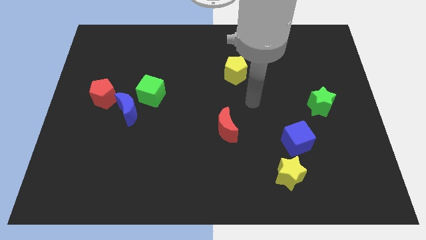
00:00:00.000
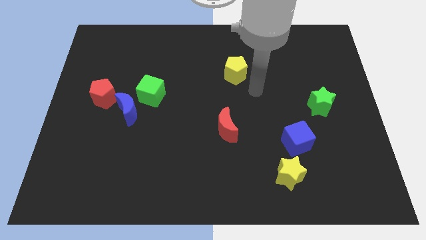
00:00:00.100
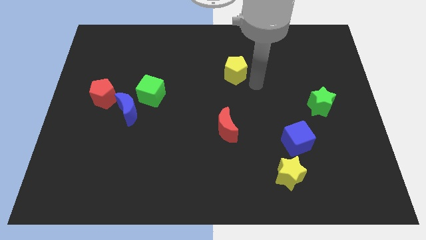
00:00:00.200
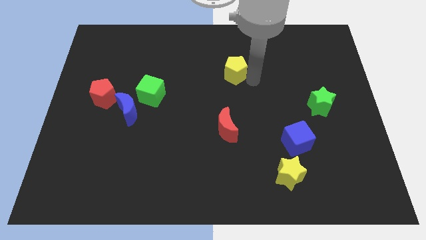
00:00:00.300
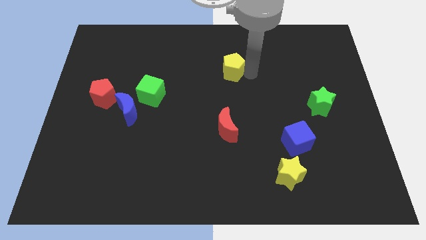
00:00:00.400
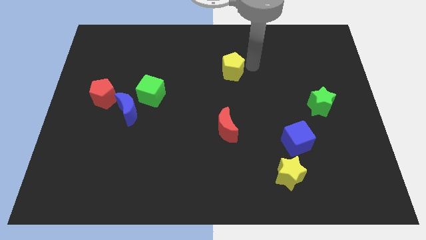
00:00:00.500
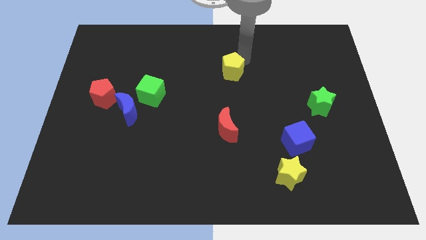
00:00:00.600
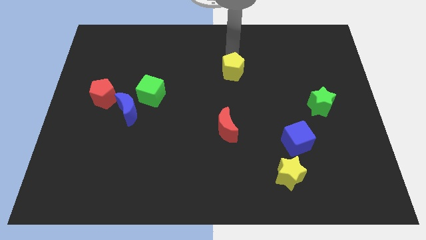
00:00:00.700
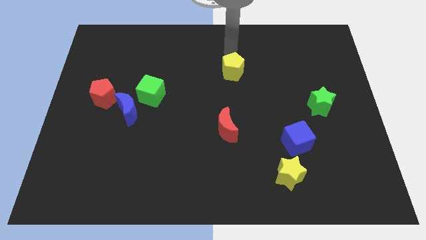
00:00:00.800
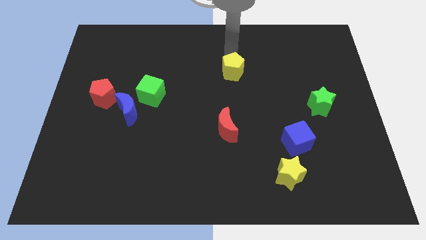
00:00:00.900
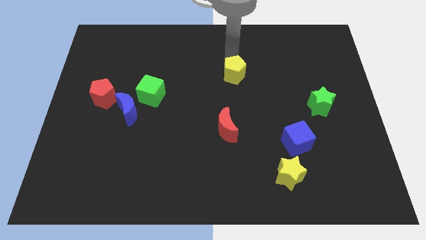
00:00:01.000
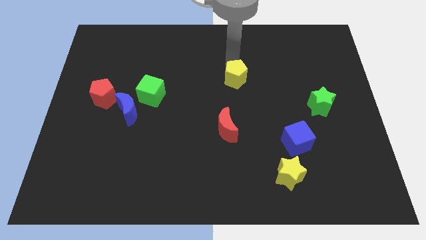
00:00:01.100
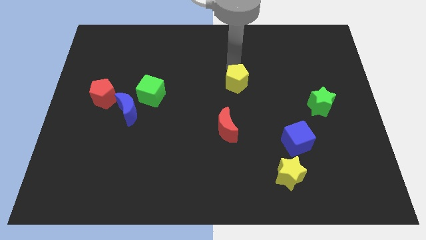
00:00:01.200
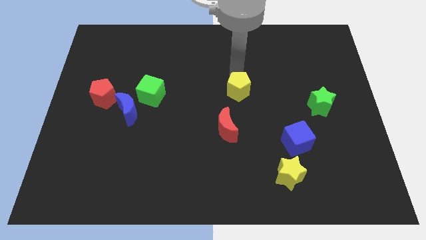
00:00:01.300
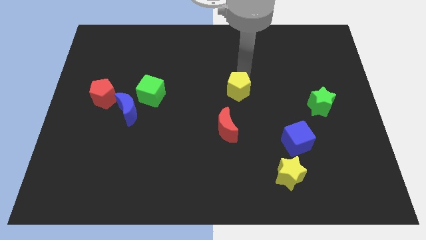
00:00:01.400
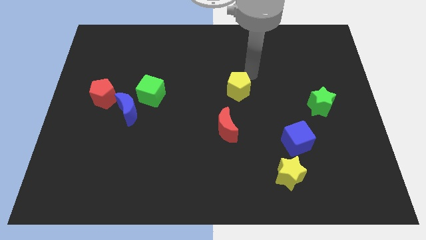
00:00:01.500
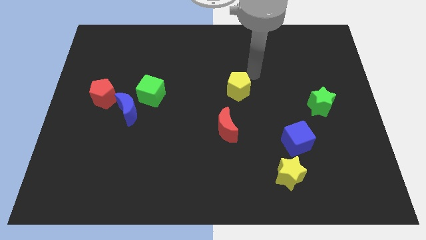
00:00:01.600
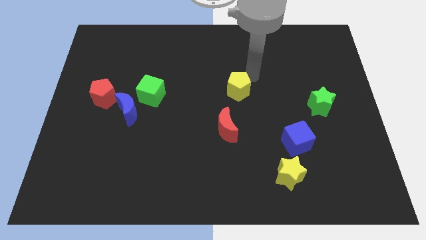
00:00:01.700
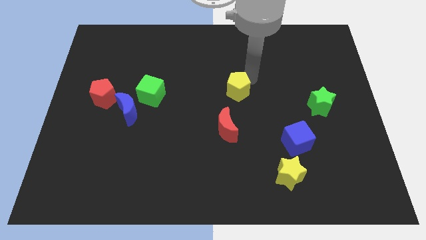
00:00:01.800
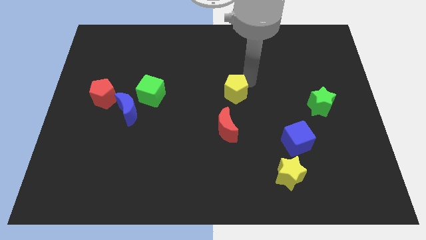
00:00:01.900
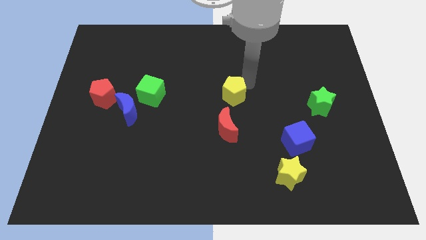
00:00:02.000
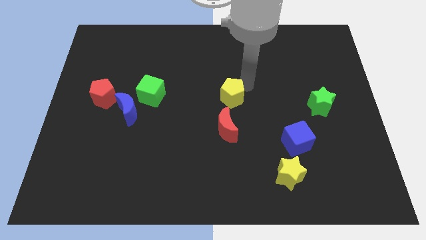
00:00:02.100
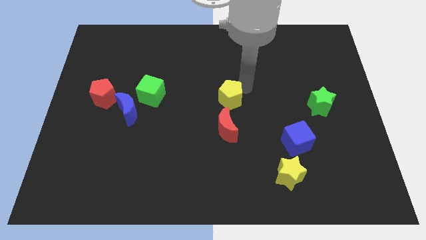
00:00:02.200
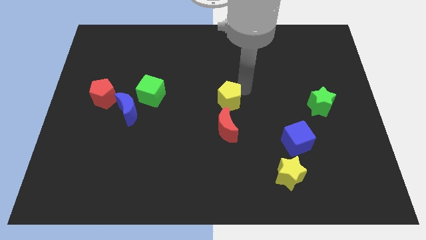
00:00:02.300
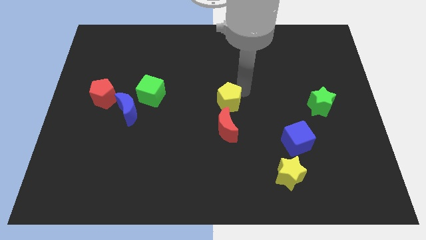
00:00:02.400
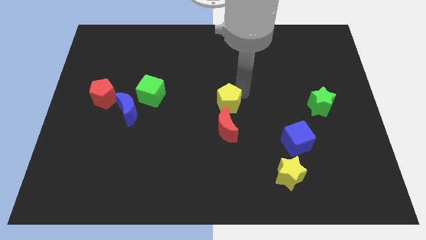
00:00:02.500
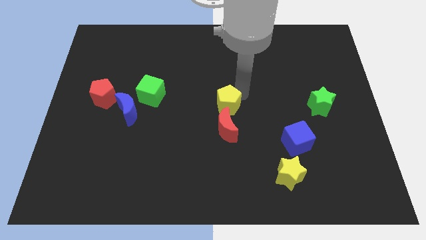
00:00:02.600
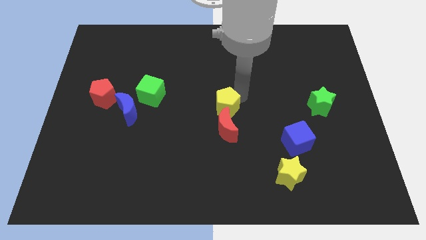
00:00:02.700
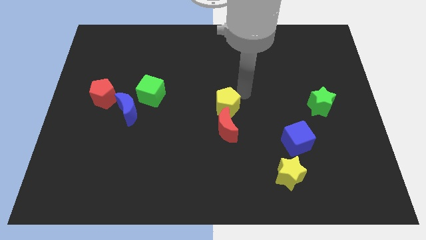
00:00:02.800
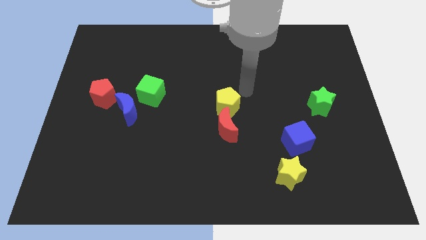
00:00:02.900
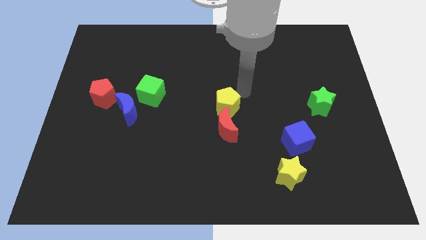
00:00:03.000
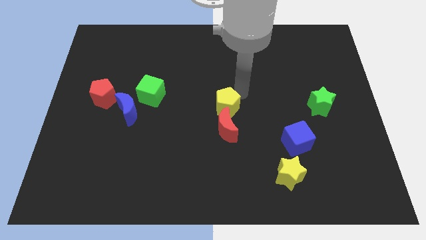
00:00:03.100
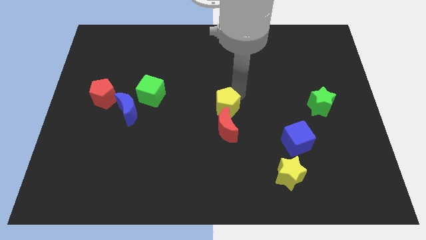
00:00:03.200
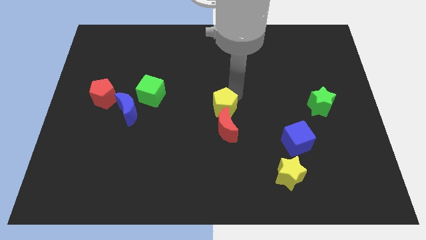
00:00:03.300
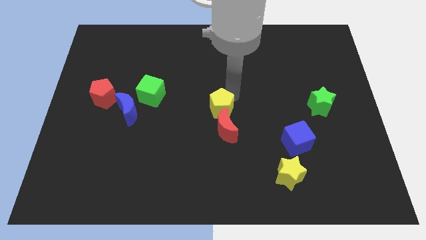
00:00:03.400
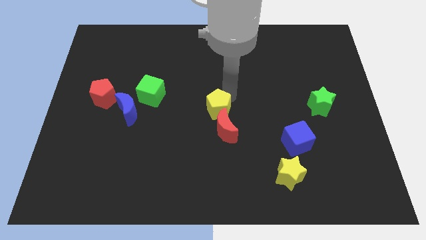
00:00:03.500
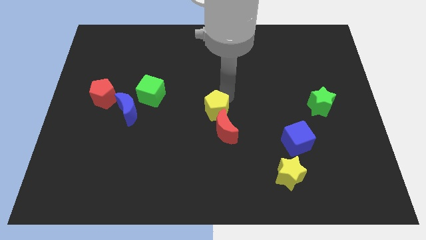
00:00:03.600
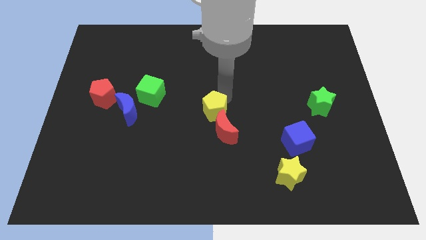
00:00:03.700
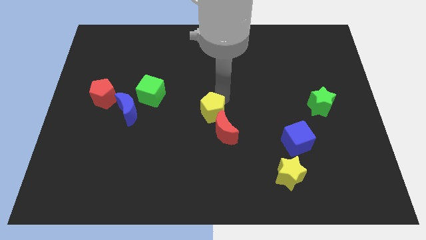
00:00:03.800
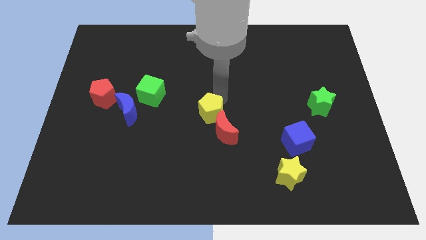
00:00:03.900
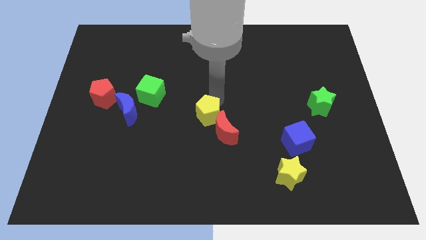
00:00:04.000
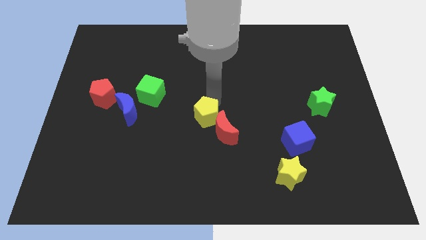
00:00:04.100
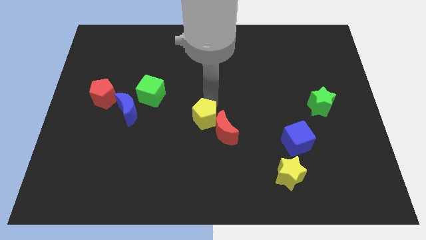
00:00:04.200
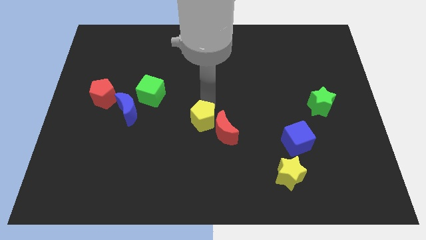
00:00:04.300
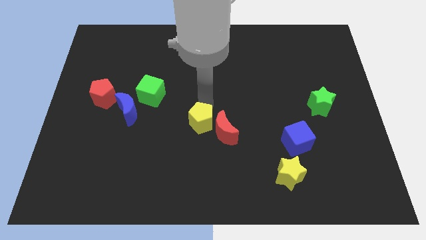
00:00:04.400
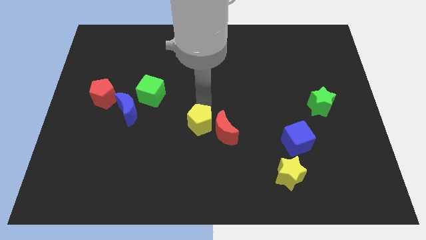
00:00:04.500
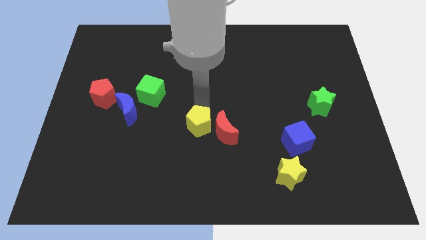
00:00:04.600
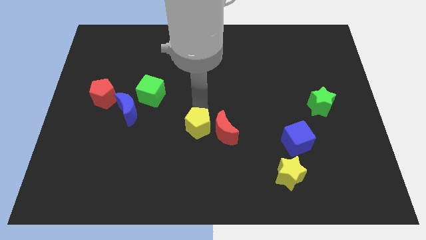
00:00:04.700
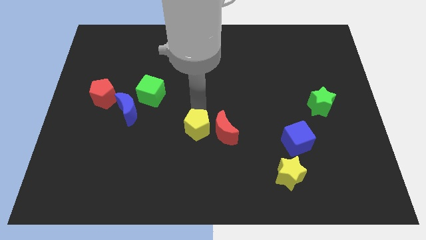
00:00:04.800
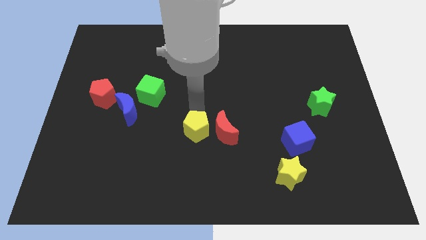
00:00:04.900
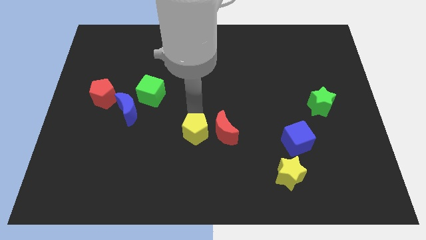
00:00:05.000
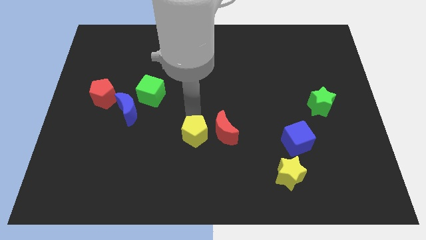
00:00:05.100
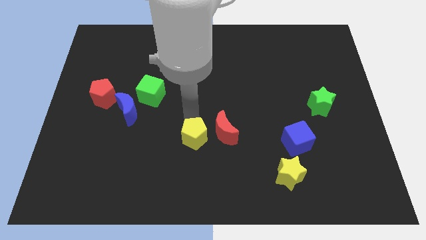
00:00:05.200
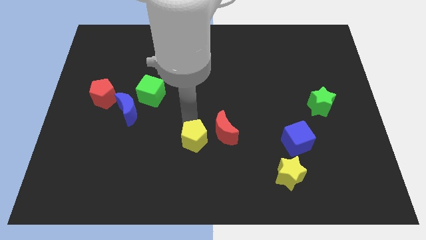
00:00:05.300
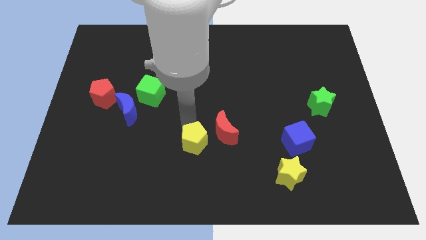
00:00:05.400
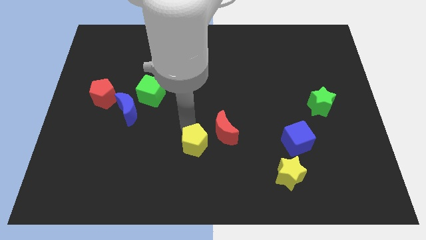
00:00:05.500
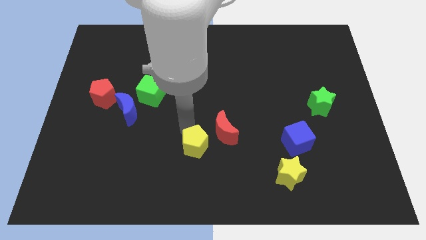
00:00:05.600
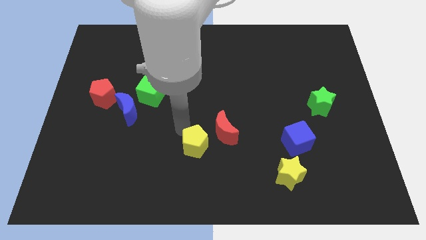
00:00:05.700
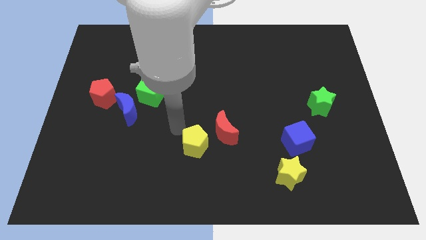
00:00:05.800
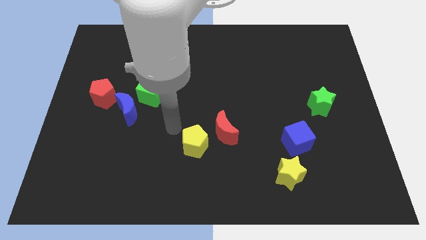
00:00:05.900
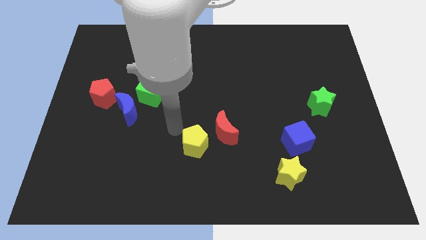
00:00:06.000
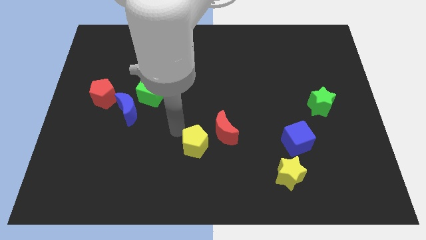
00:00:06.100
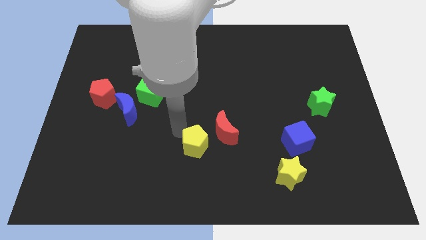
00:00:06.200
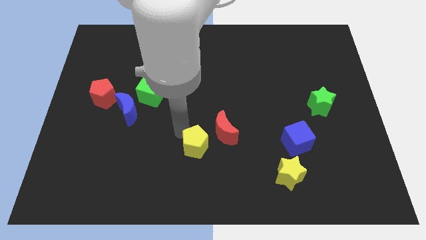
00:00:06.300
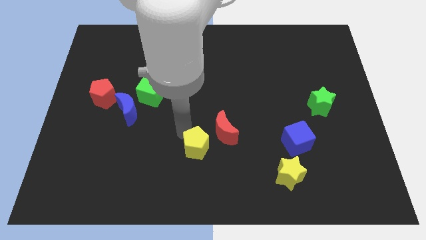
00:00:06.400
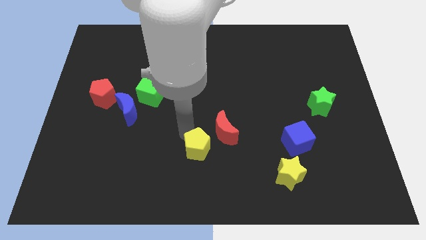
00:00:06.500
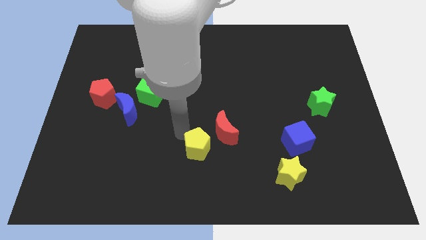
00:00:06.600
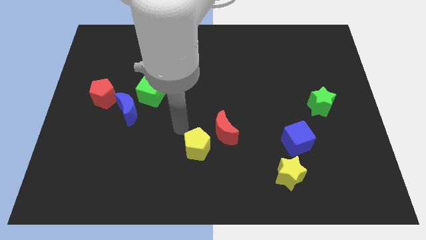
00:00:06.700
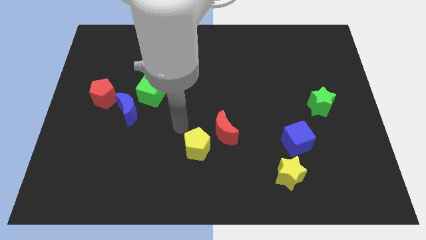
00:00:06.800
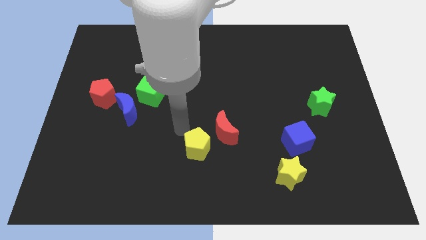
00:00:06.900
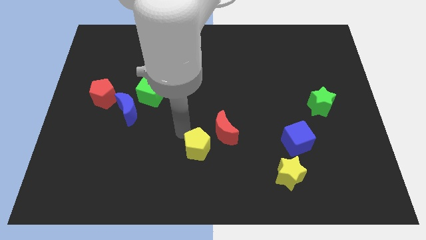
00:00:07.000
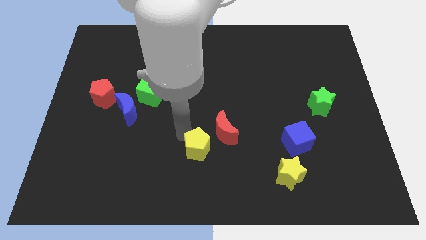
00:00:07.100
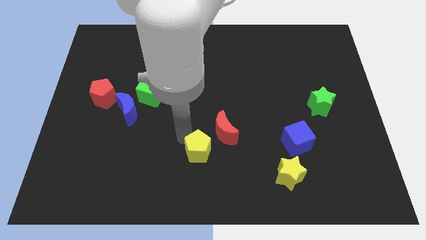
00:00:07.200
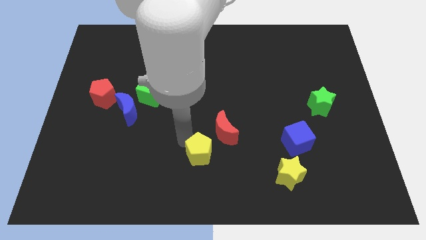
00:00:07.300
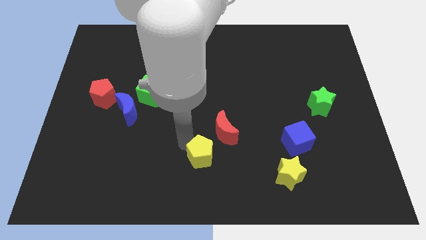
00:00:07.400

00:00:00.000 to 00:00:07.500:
slide the yellow pentagon to the bottom side
